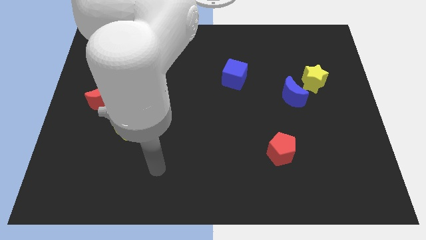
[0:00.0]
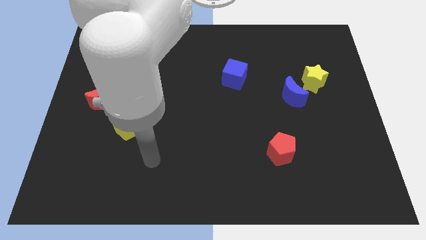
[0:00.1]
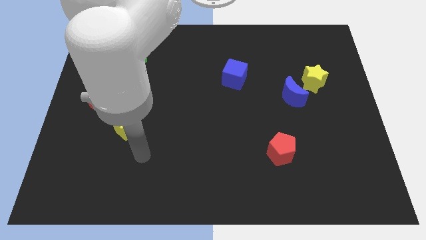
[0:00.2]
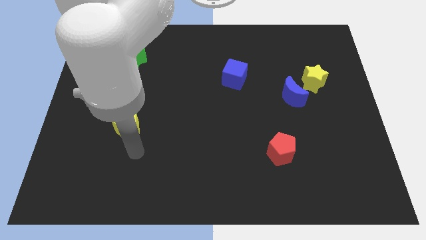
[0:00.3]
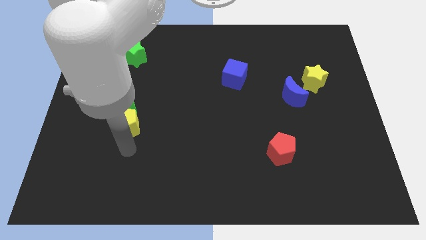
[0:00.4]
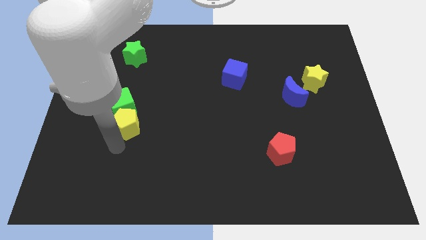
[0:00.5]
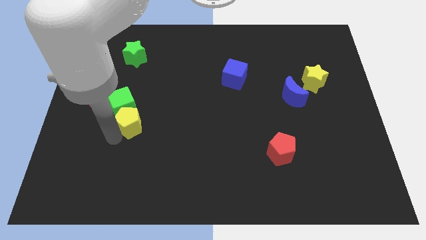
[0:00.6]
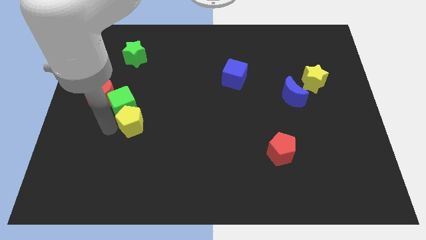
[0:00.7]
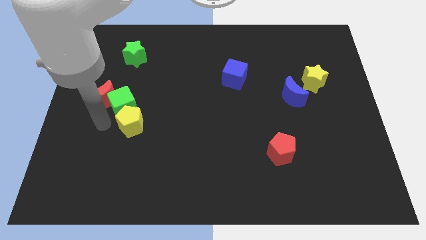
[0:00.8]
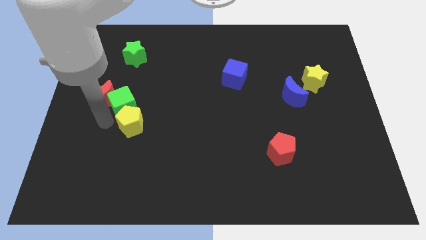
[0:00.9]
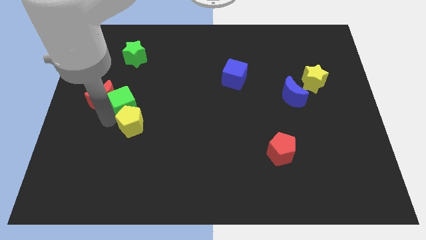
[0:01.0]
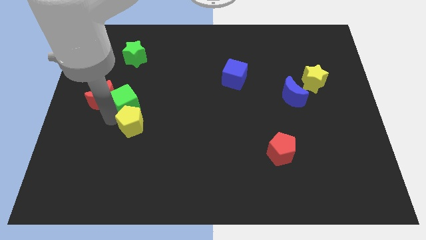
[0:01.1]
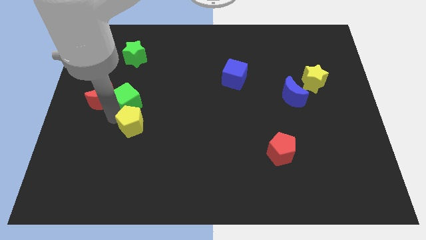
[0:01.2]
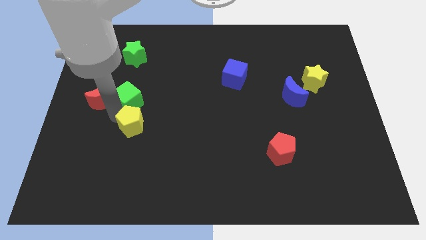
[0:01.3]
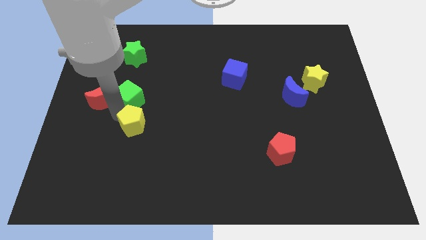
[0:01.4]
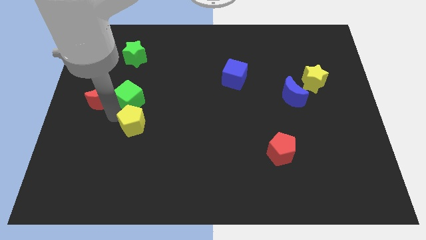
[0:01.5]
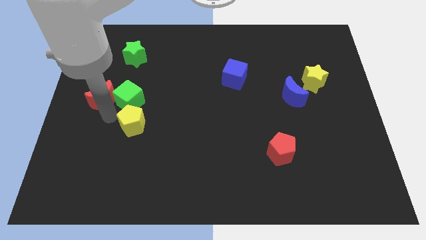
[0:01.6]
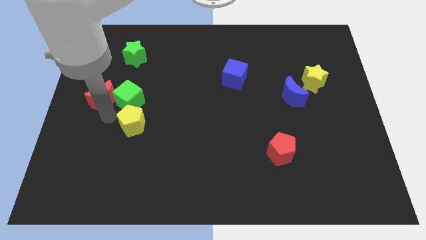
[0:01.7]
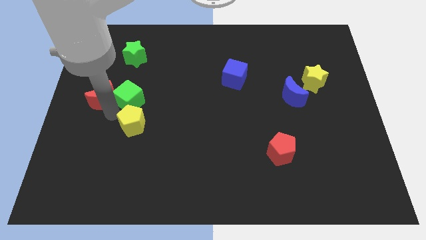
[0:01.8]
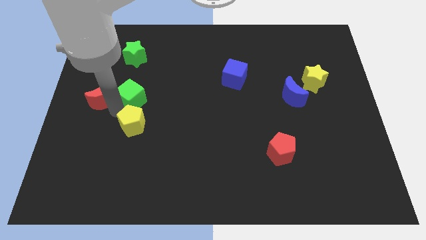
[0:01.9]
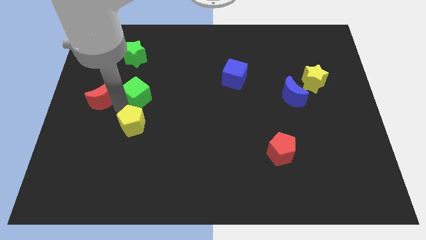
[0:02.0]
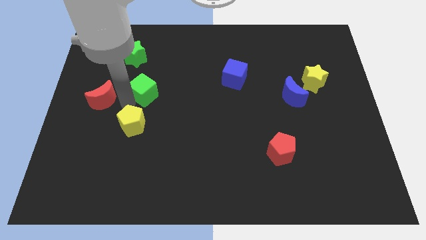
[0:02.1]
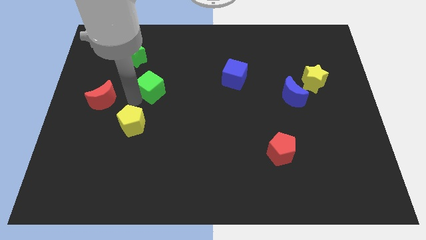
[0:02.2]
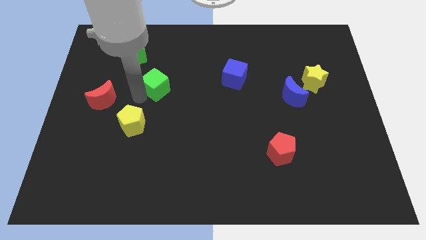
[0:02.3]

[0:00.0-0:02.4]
pull the green cube apart from the red moon and yellow pentagon

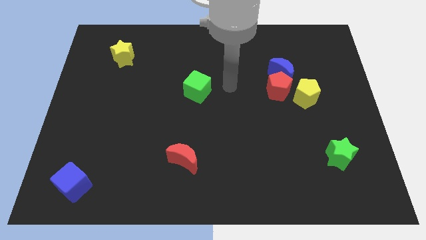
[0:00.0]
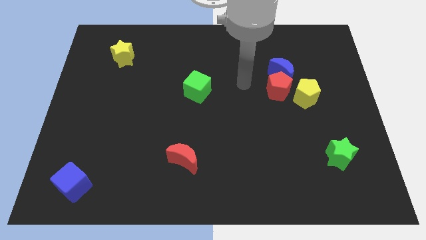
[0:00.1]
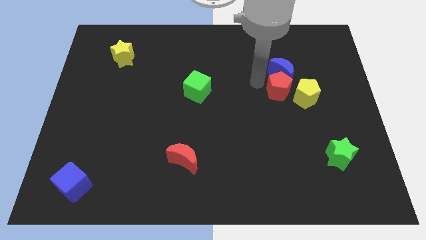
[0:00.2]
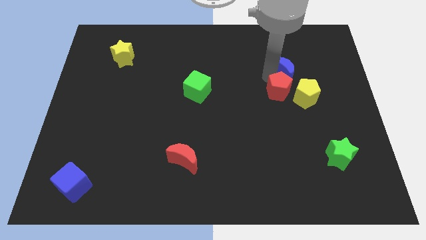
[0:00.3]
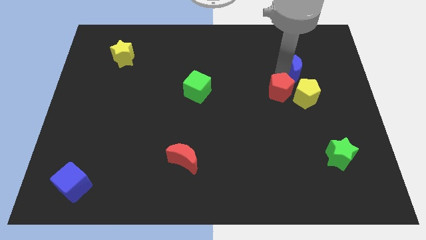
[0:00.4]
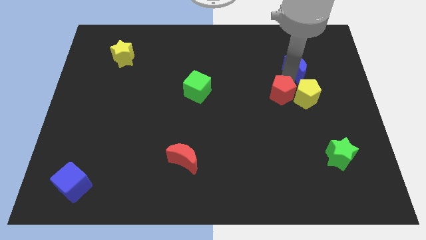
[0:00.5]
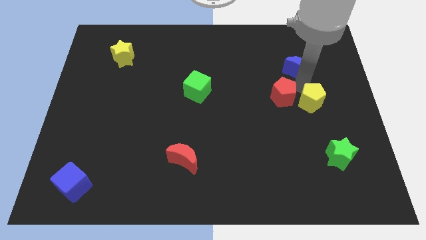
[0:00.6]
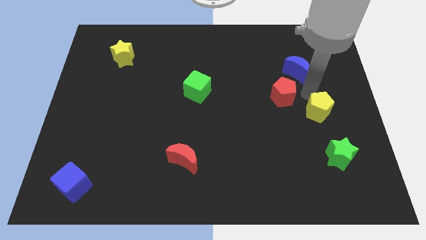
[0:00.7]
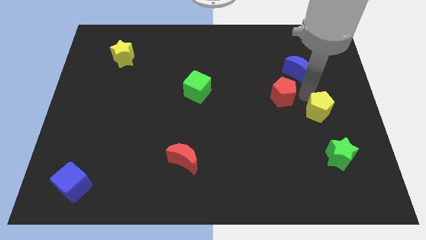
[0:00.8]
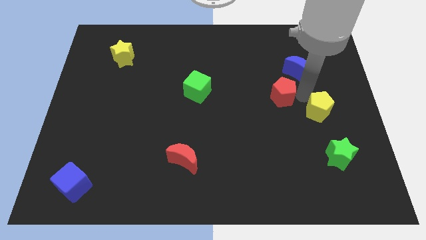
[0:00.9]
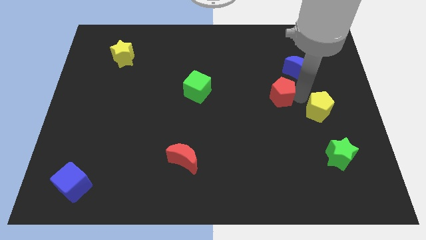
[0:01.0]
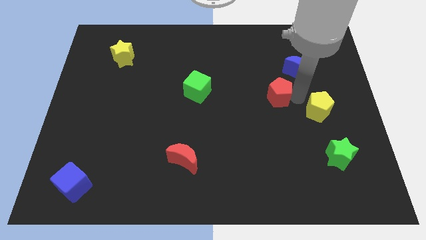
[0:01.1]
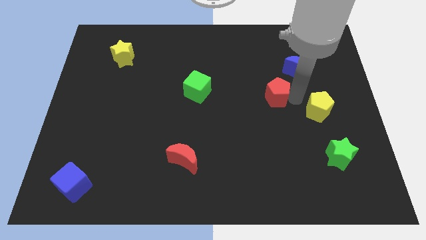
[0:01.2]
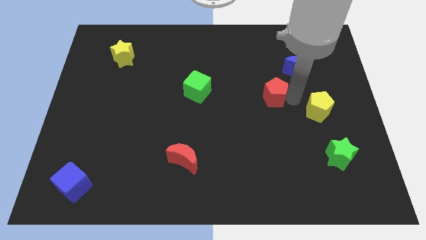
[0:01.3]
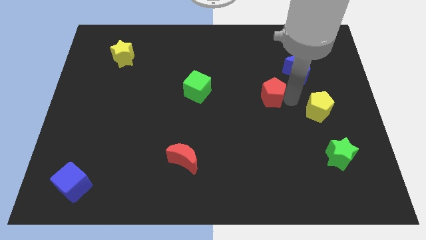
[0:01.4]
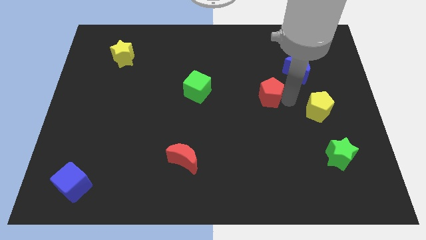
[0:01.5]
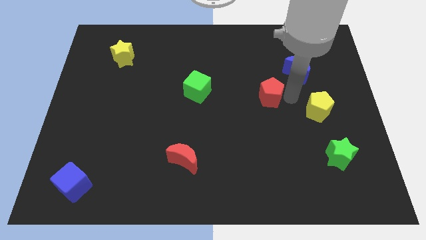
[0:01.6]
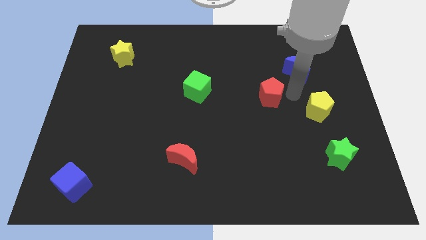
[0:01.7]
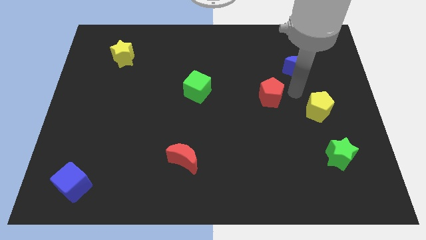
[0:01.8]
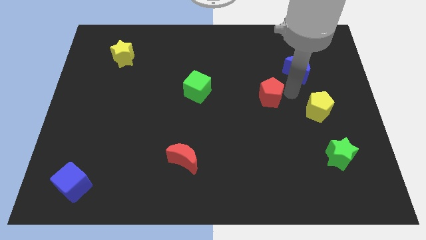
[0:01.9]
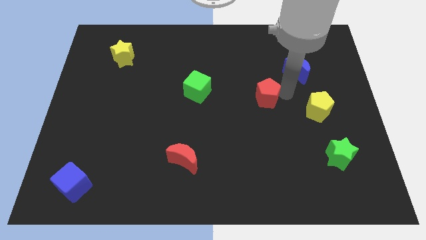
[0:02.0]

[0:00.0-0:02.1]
separate the red pentagon from the blue moon and yellow pentagon

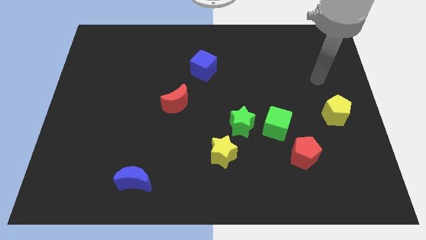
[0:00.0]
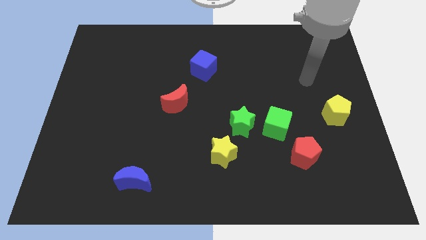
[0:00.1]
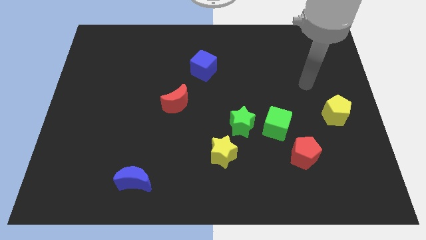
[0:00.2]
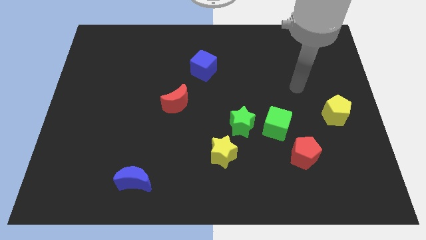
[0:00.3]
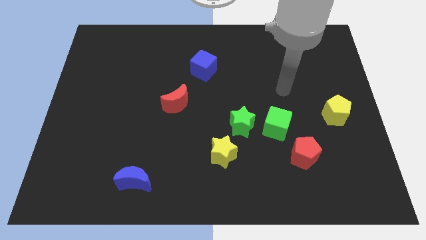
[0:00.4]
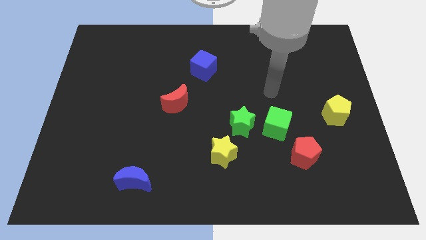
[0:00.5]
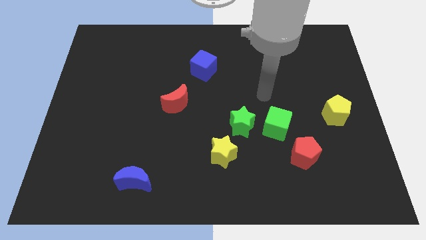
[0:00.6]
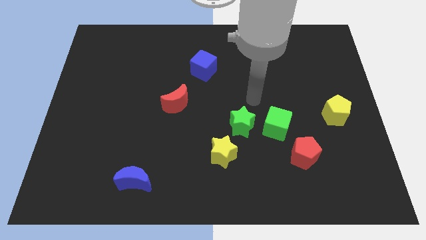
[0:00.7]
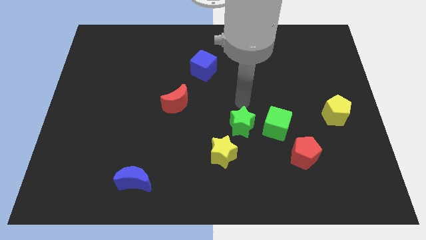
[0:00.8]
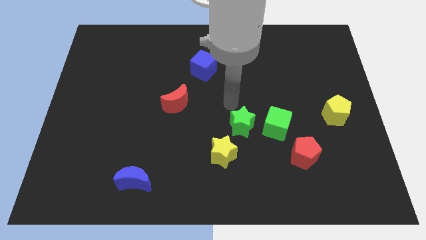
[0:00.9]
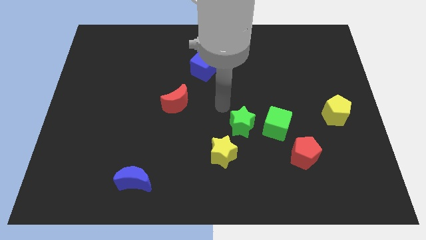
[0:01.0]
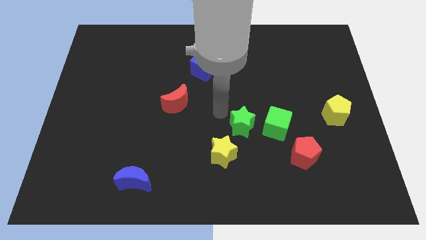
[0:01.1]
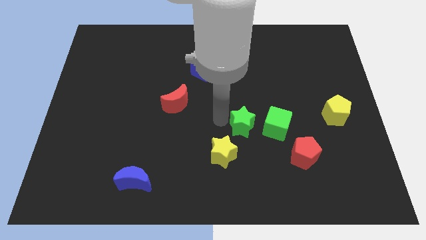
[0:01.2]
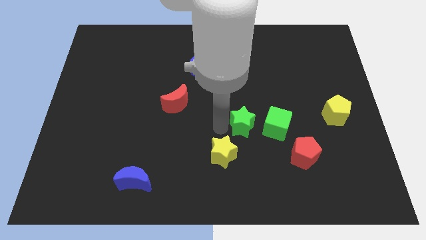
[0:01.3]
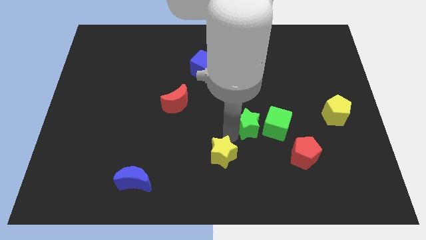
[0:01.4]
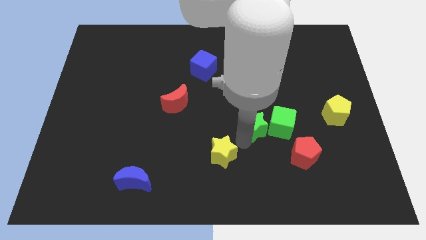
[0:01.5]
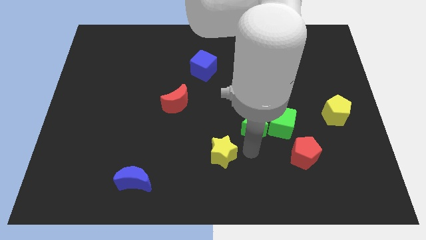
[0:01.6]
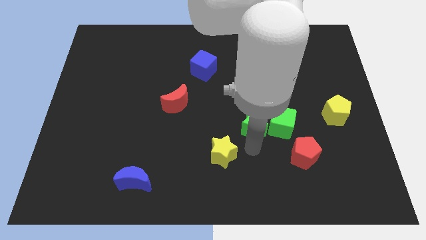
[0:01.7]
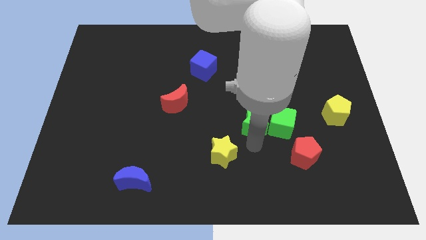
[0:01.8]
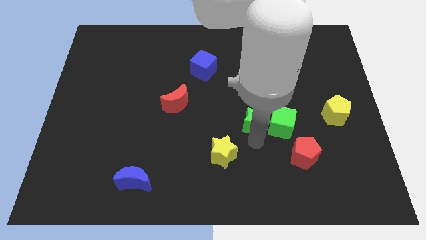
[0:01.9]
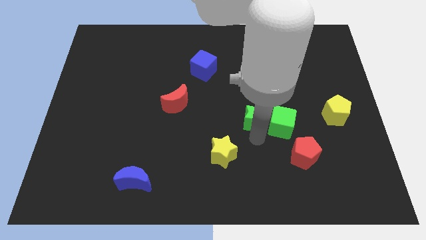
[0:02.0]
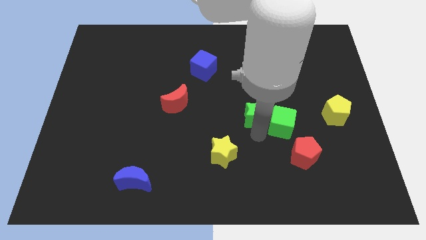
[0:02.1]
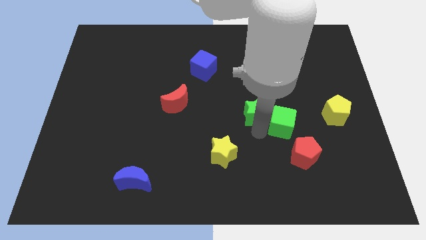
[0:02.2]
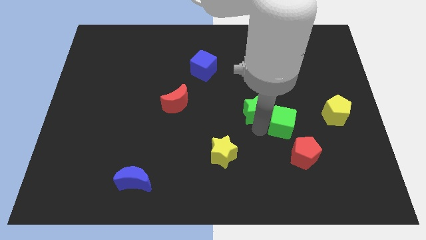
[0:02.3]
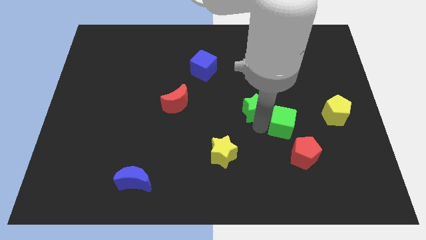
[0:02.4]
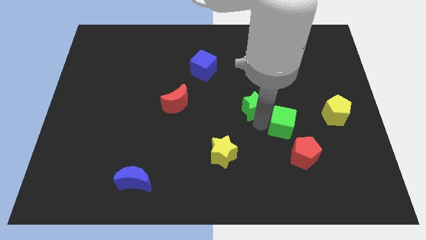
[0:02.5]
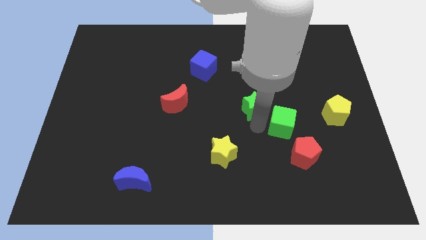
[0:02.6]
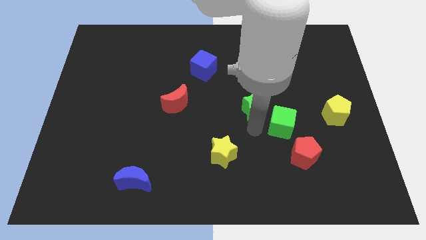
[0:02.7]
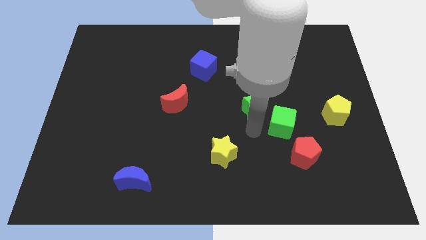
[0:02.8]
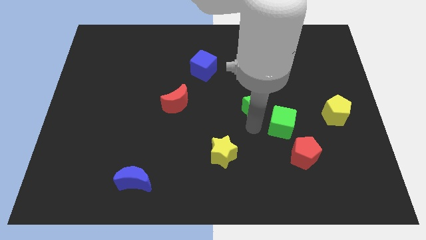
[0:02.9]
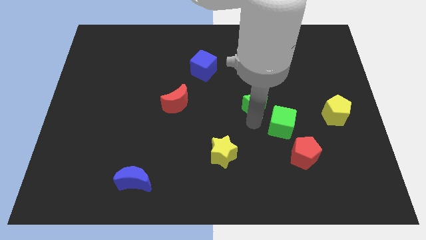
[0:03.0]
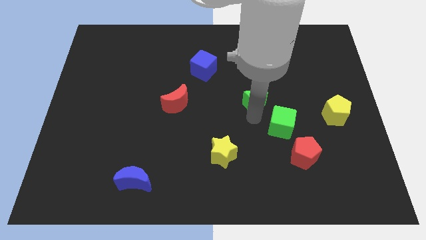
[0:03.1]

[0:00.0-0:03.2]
pull the green star apart from the green cube and yellow star

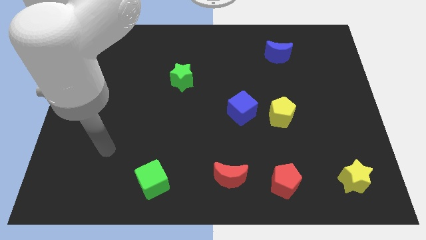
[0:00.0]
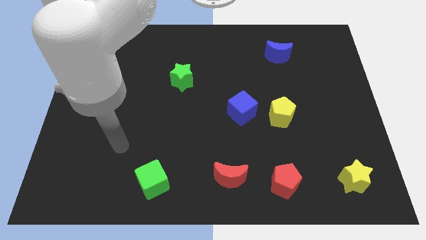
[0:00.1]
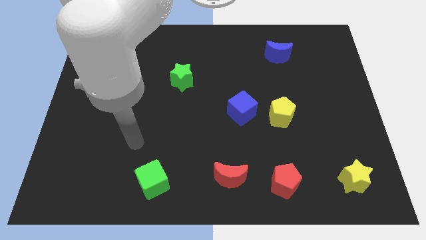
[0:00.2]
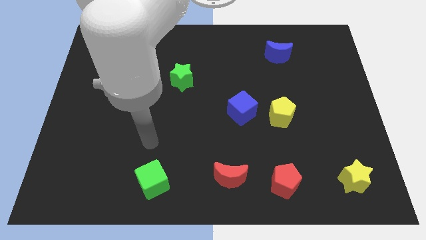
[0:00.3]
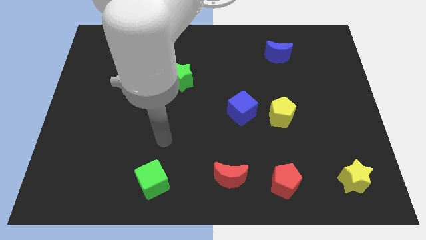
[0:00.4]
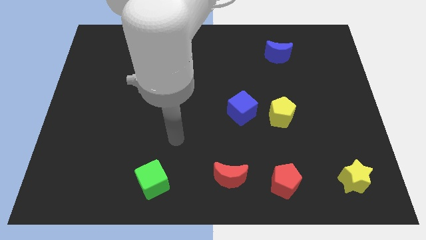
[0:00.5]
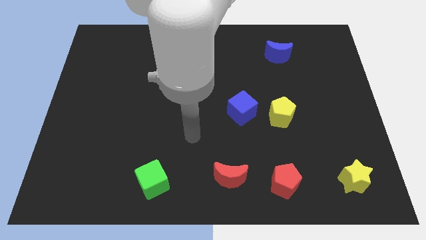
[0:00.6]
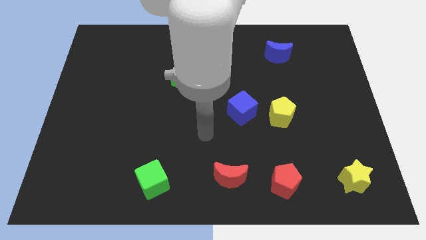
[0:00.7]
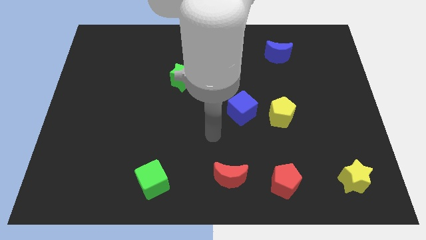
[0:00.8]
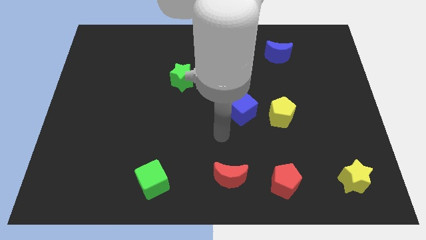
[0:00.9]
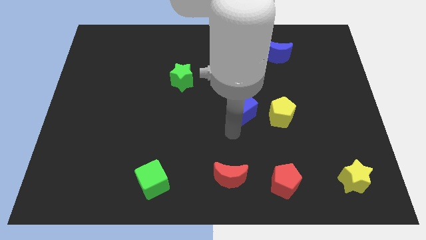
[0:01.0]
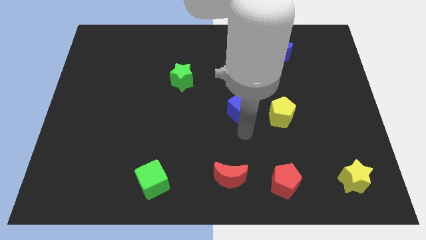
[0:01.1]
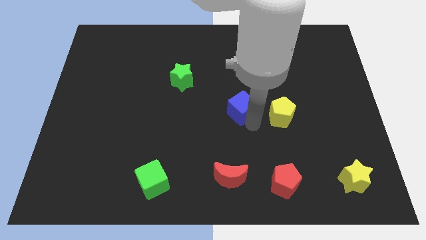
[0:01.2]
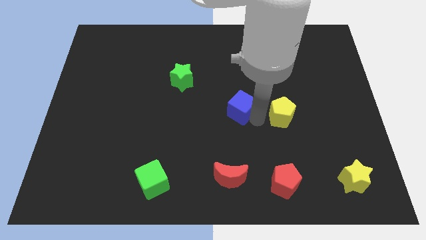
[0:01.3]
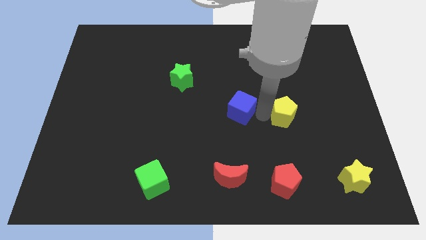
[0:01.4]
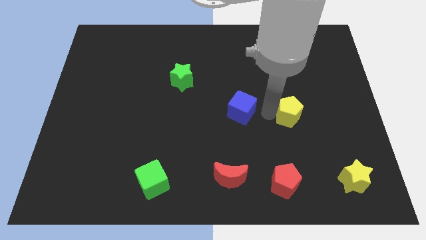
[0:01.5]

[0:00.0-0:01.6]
pull the blue cube apart from the yellow pentagon
